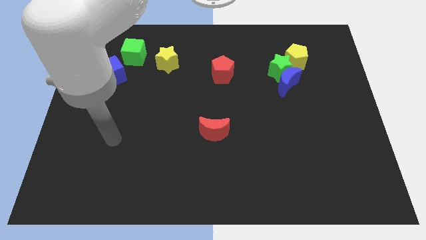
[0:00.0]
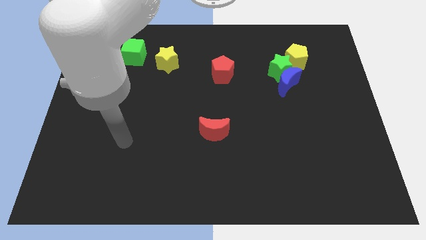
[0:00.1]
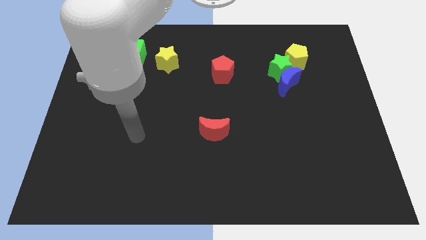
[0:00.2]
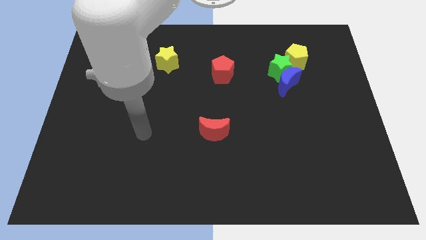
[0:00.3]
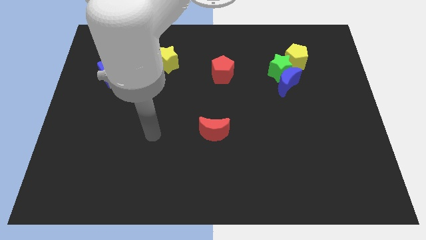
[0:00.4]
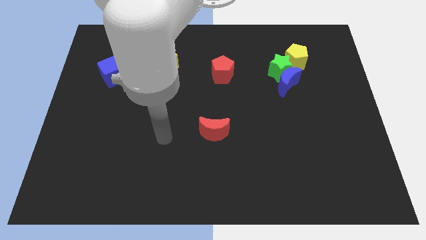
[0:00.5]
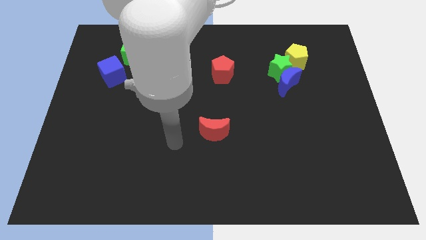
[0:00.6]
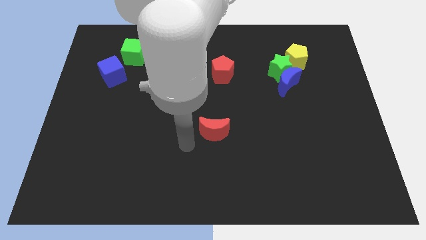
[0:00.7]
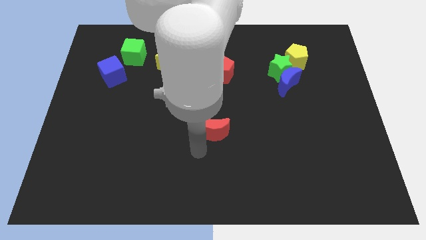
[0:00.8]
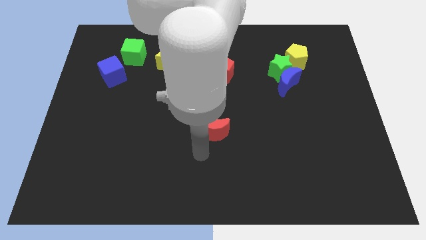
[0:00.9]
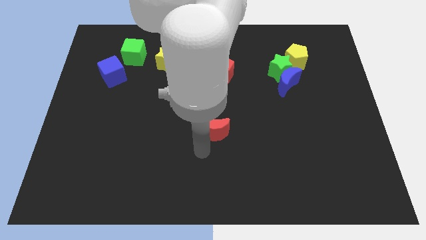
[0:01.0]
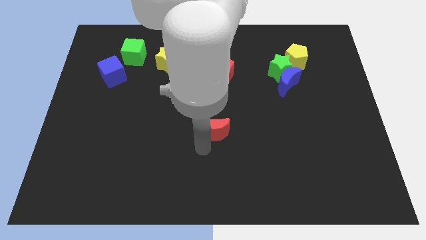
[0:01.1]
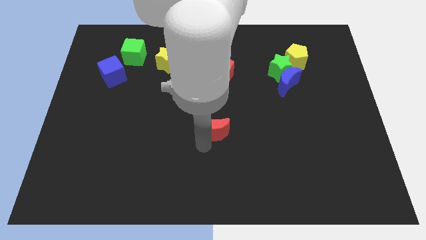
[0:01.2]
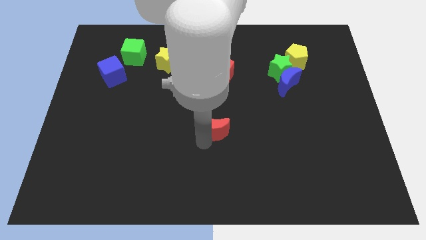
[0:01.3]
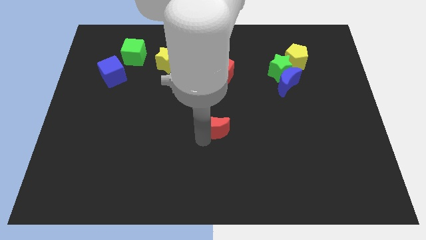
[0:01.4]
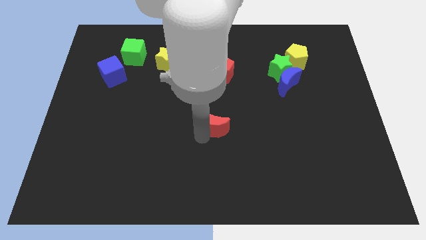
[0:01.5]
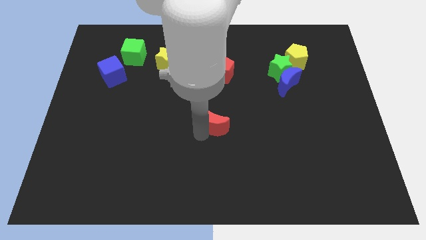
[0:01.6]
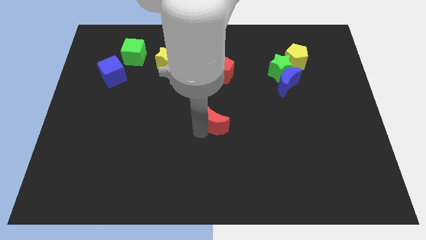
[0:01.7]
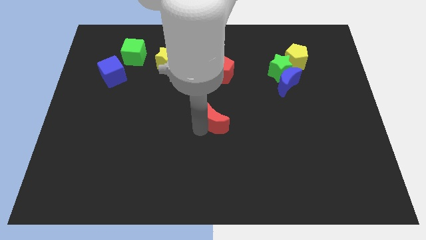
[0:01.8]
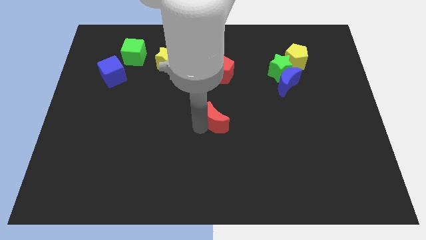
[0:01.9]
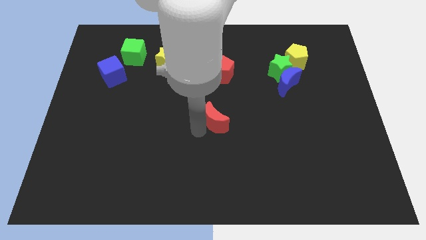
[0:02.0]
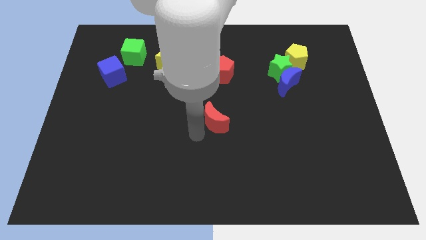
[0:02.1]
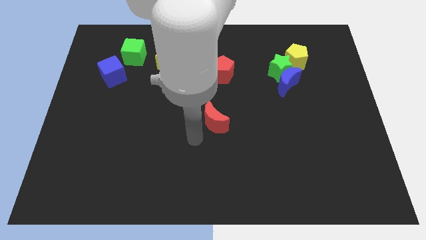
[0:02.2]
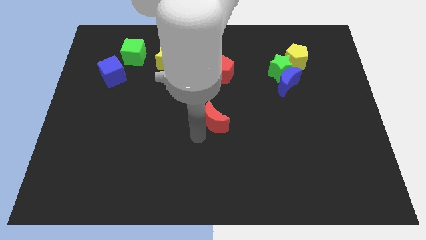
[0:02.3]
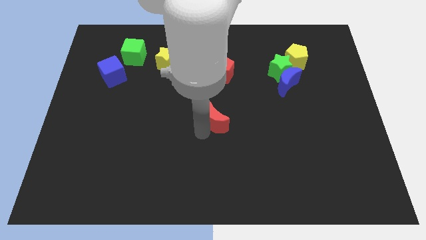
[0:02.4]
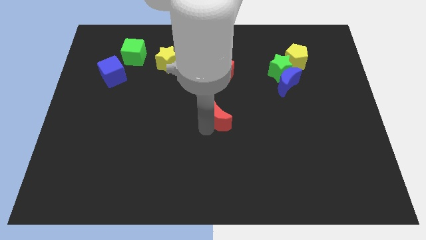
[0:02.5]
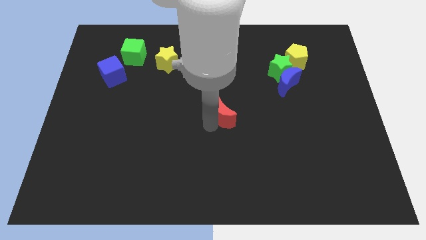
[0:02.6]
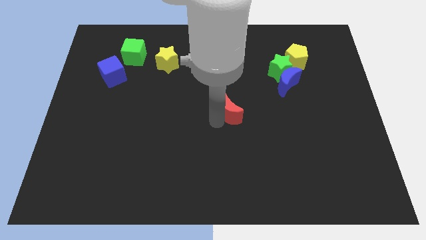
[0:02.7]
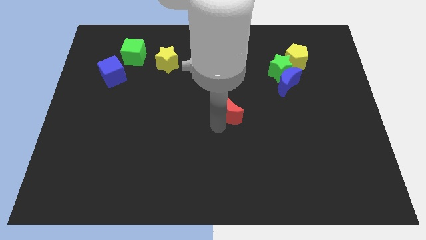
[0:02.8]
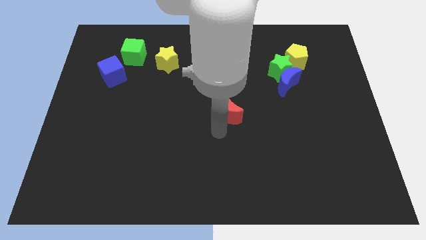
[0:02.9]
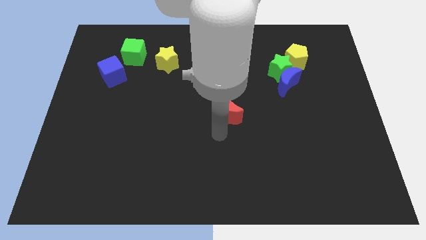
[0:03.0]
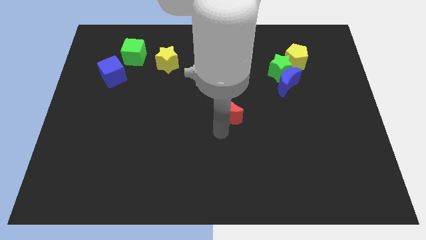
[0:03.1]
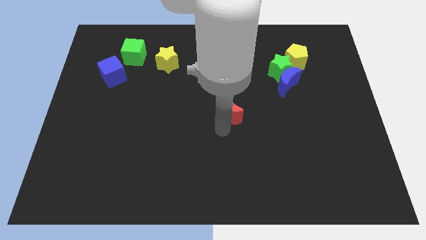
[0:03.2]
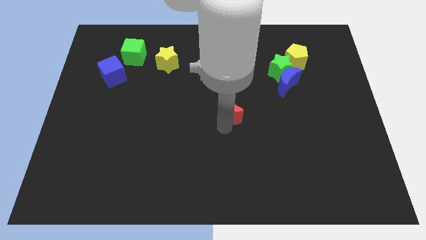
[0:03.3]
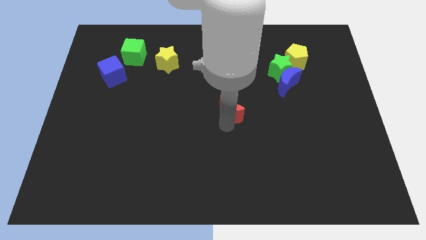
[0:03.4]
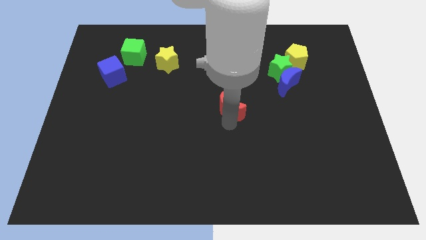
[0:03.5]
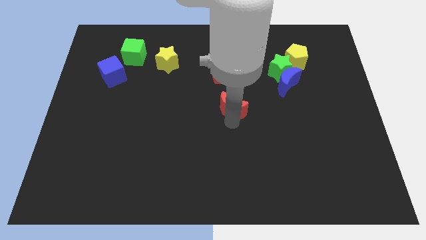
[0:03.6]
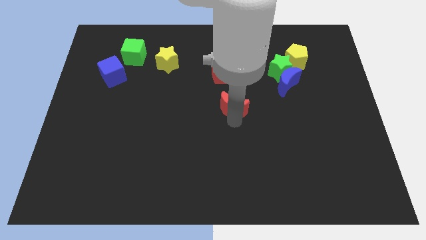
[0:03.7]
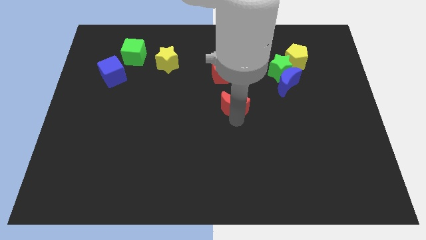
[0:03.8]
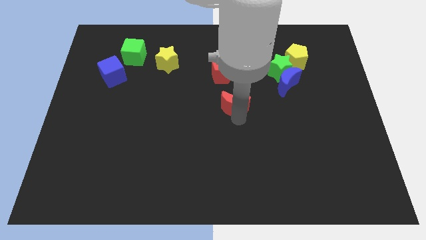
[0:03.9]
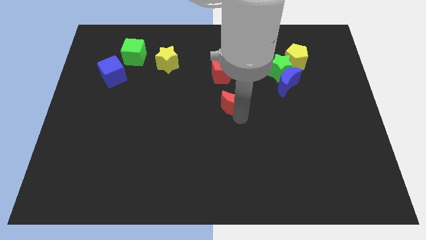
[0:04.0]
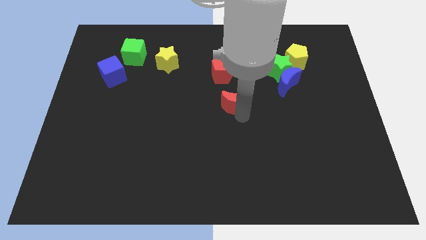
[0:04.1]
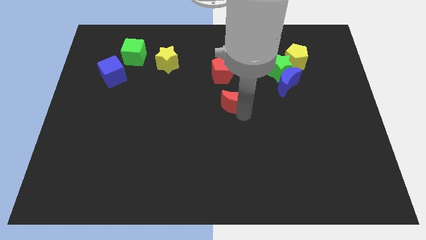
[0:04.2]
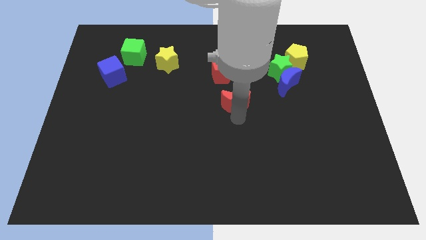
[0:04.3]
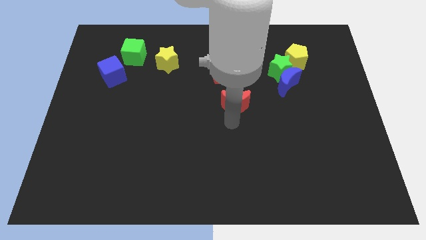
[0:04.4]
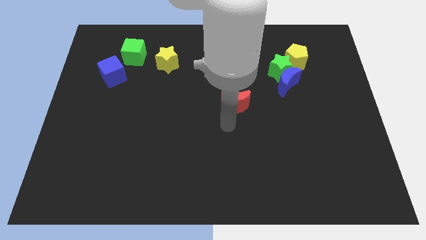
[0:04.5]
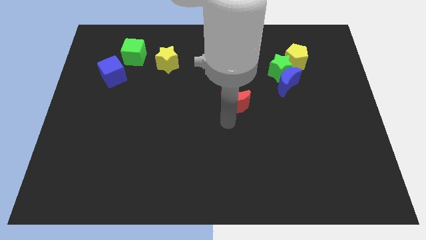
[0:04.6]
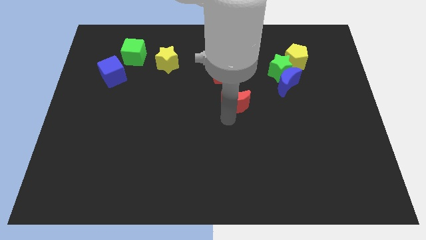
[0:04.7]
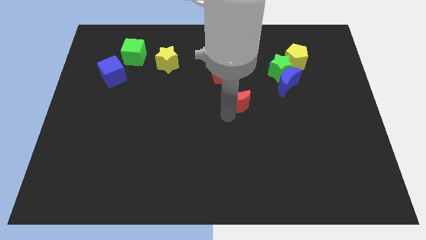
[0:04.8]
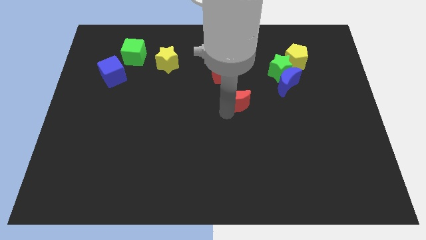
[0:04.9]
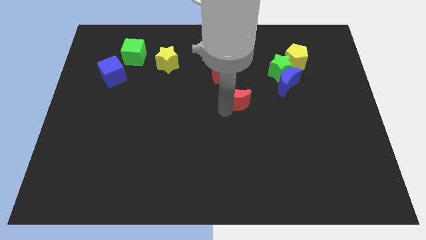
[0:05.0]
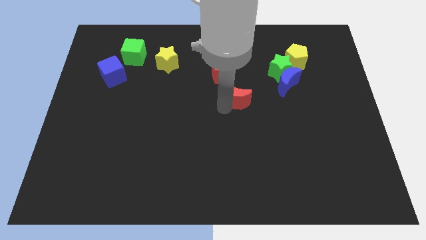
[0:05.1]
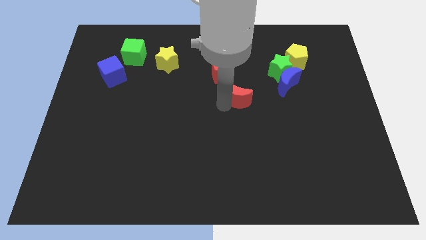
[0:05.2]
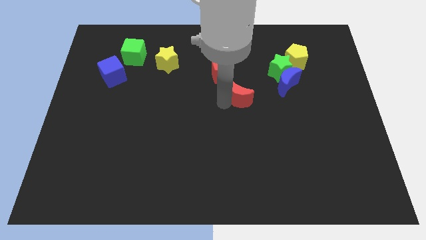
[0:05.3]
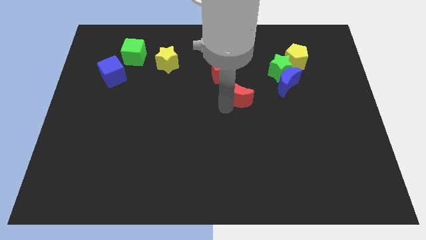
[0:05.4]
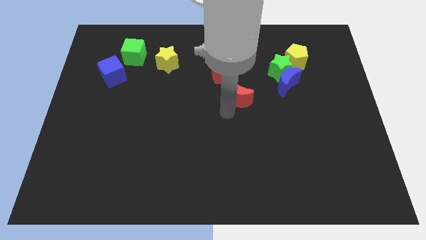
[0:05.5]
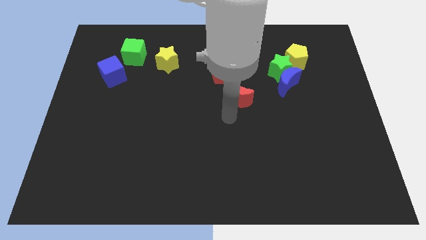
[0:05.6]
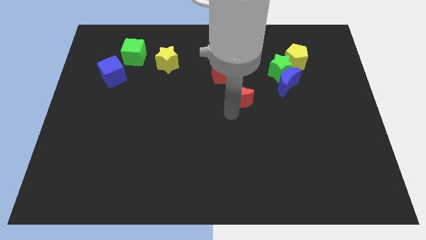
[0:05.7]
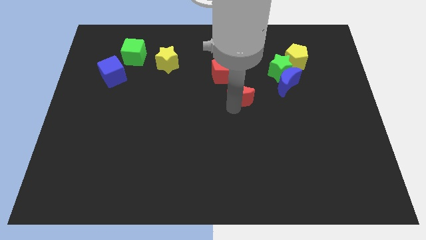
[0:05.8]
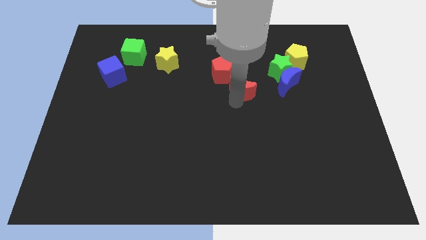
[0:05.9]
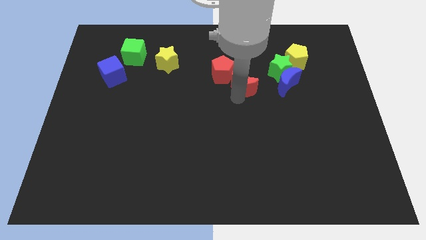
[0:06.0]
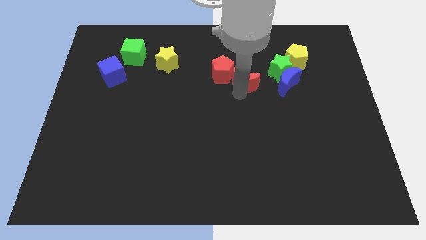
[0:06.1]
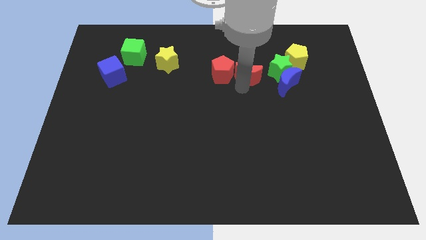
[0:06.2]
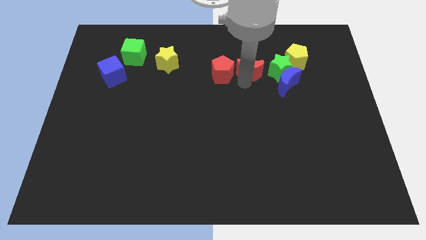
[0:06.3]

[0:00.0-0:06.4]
put the red moon left of the yellow pentagon
